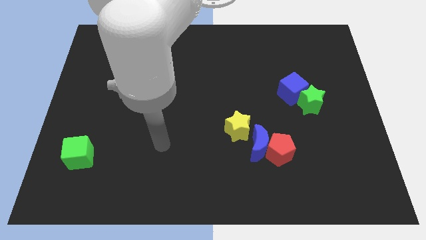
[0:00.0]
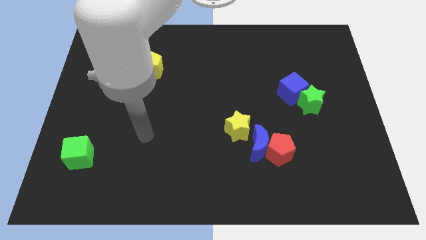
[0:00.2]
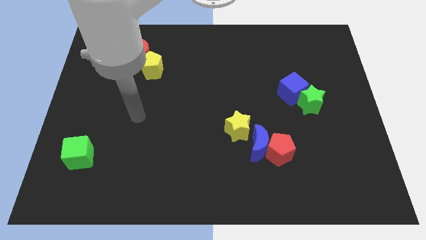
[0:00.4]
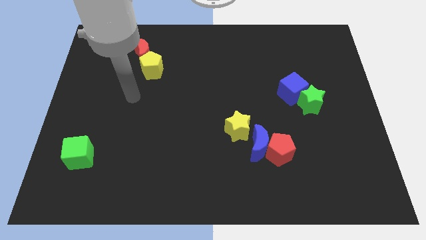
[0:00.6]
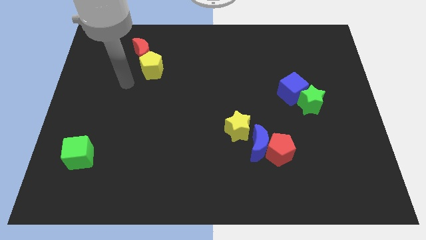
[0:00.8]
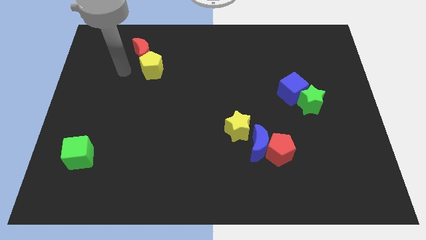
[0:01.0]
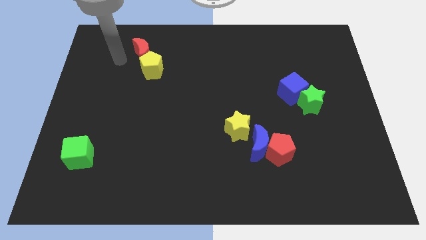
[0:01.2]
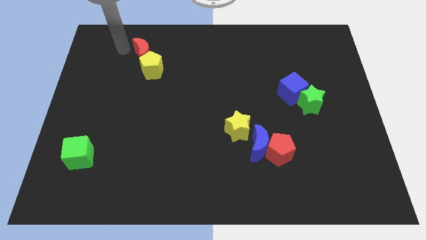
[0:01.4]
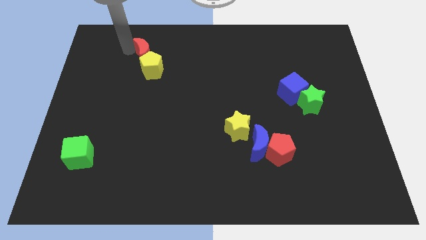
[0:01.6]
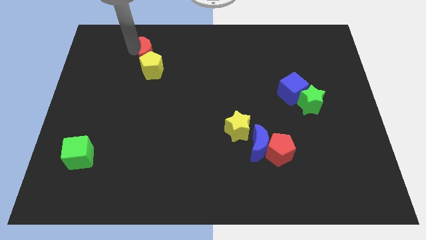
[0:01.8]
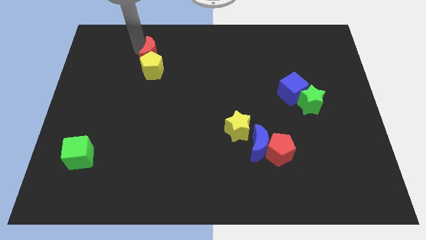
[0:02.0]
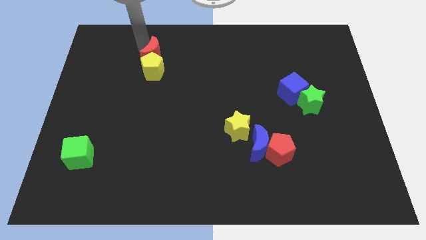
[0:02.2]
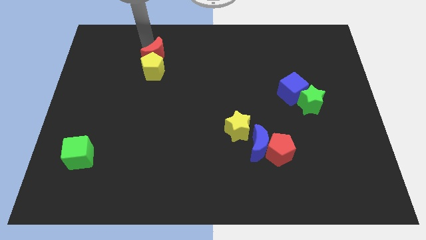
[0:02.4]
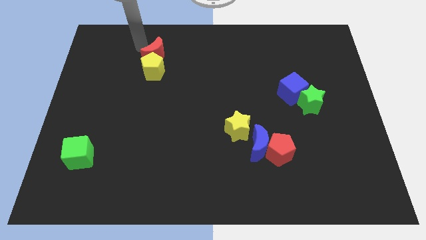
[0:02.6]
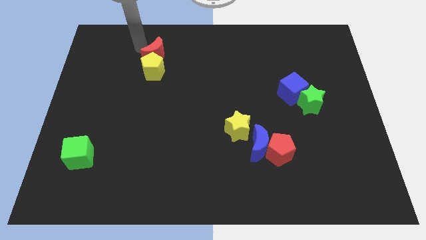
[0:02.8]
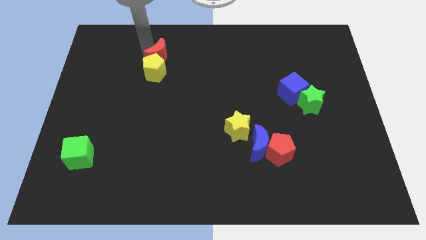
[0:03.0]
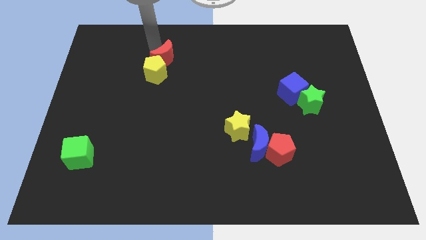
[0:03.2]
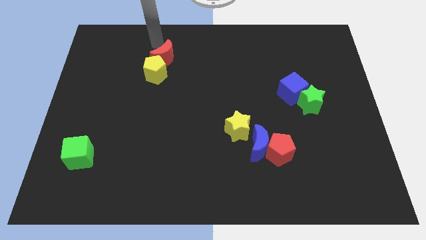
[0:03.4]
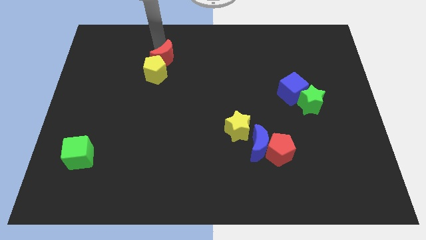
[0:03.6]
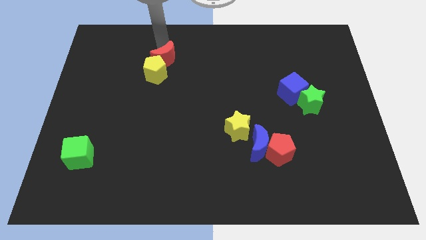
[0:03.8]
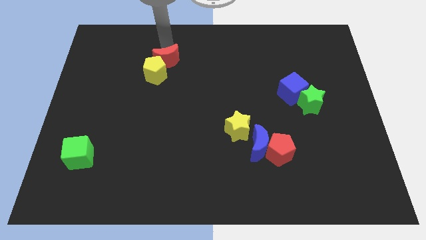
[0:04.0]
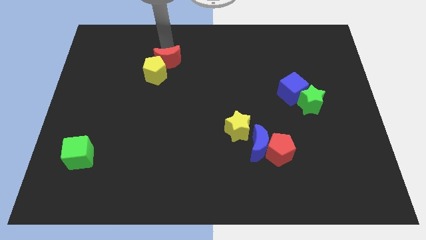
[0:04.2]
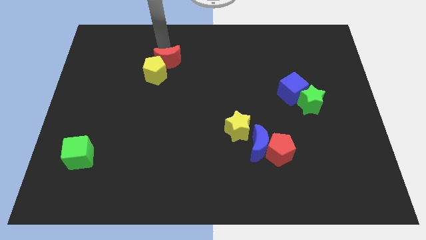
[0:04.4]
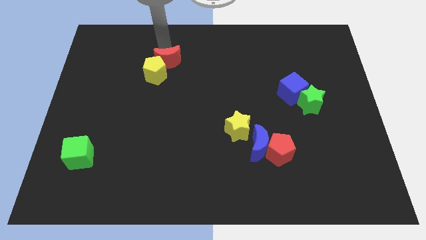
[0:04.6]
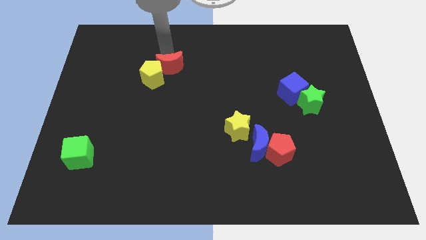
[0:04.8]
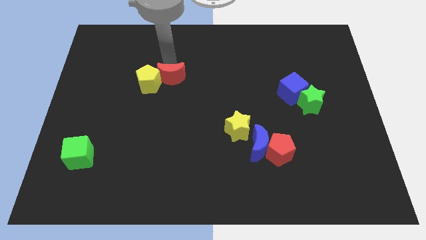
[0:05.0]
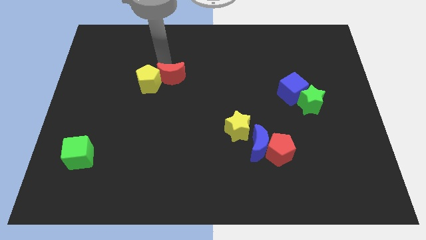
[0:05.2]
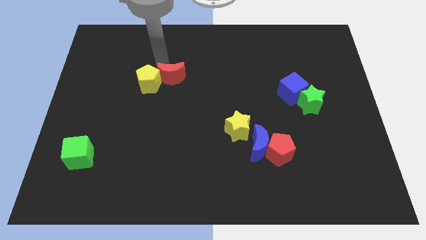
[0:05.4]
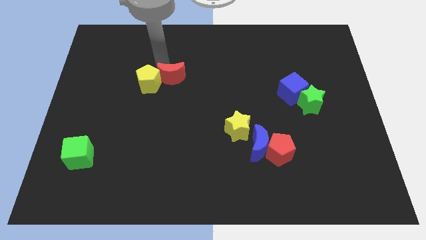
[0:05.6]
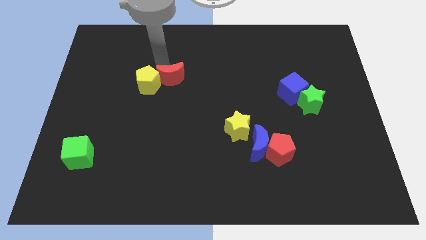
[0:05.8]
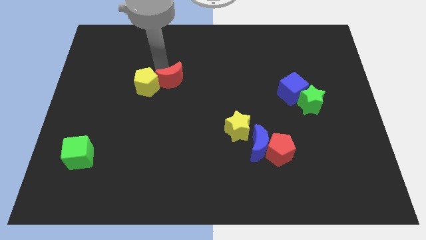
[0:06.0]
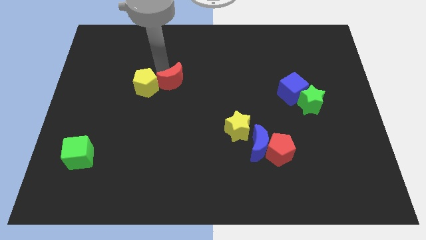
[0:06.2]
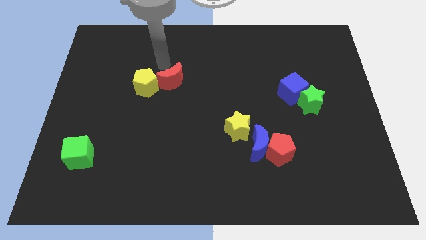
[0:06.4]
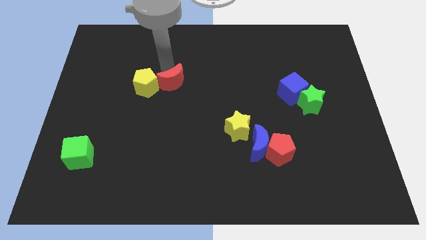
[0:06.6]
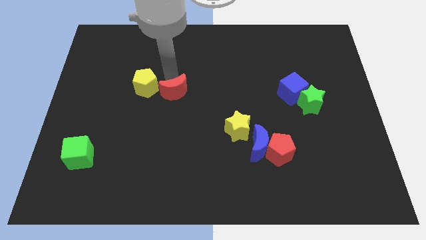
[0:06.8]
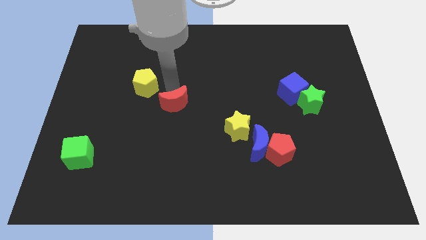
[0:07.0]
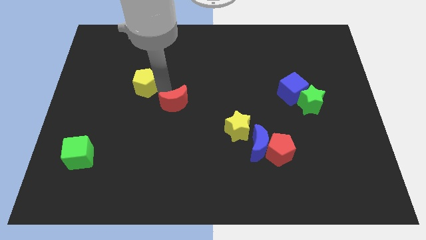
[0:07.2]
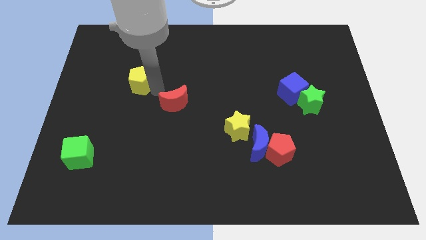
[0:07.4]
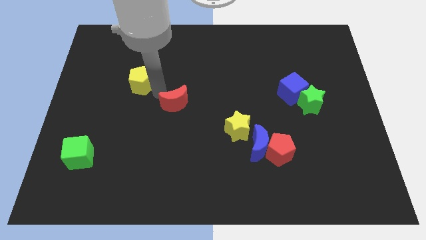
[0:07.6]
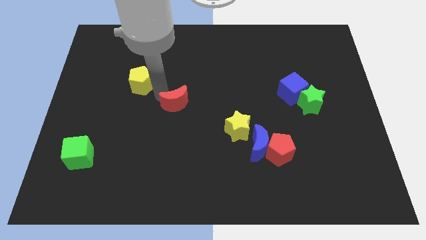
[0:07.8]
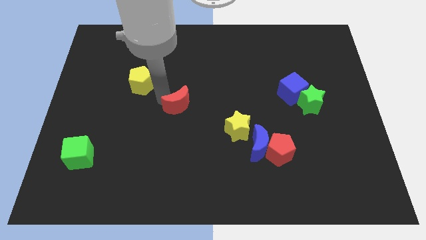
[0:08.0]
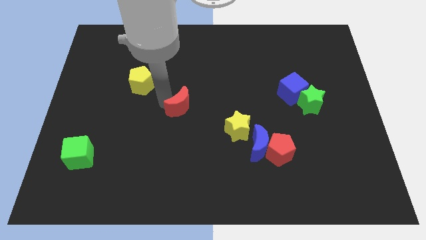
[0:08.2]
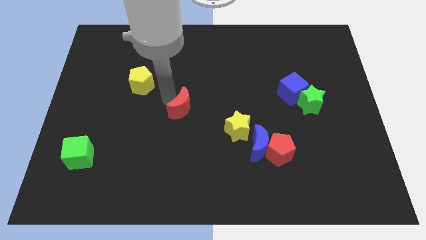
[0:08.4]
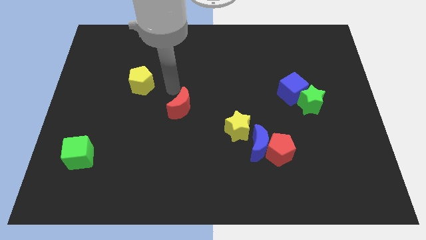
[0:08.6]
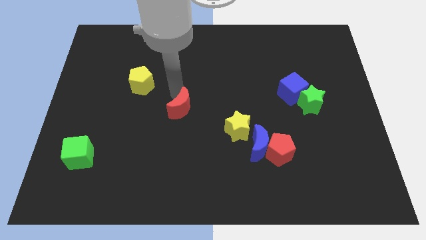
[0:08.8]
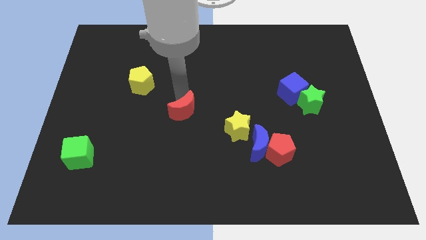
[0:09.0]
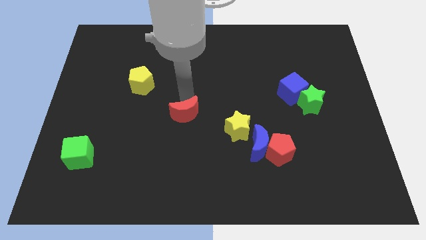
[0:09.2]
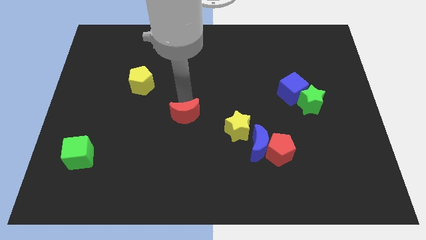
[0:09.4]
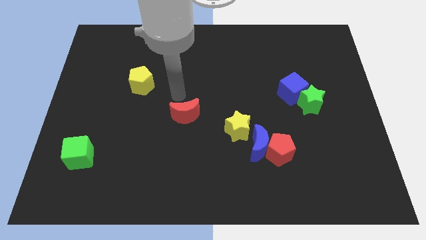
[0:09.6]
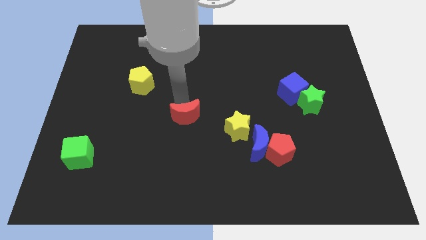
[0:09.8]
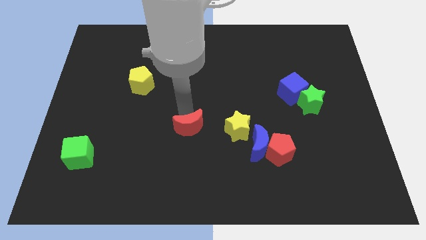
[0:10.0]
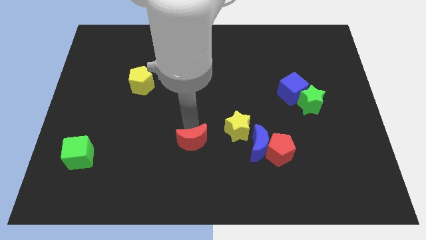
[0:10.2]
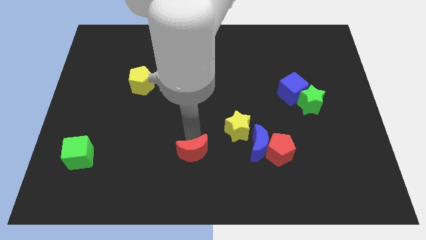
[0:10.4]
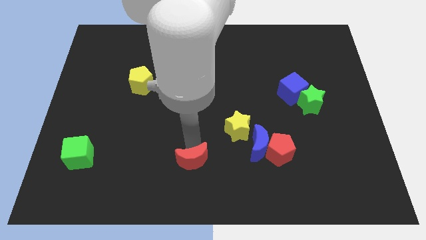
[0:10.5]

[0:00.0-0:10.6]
slide the red moon to the bottom

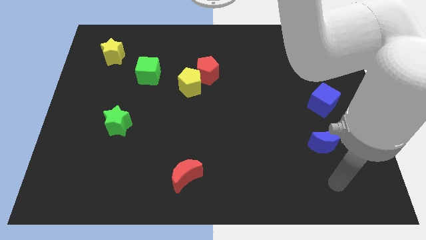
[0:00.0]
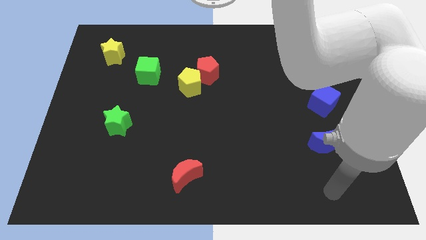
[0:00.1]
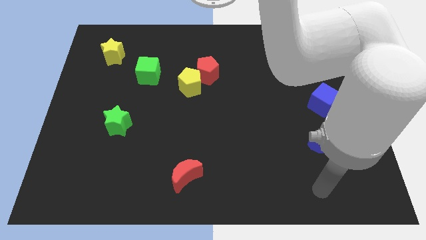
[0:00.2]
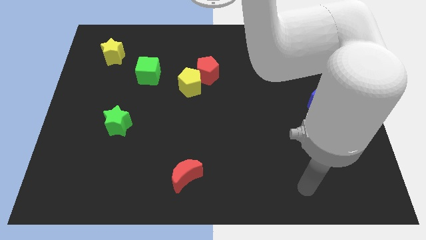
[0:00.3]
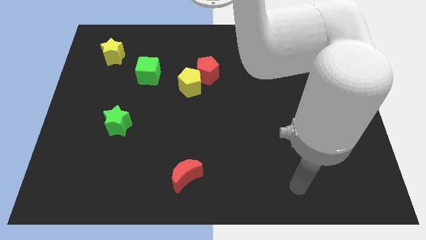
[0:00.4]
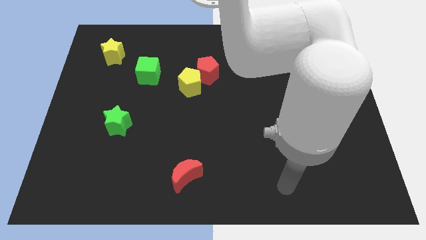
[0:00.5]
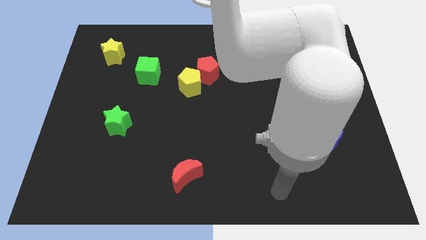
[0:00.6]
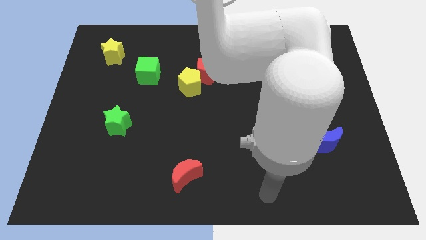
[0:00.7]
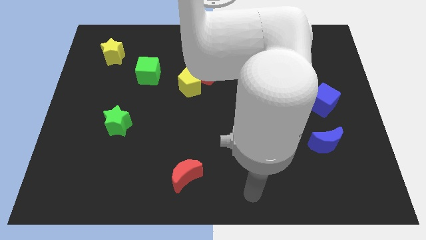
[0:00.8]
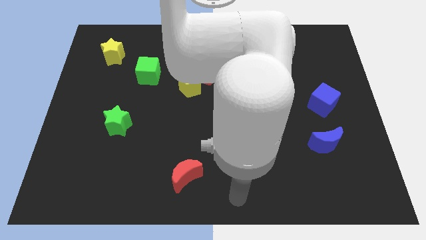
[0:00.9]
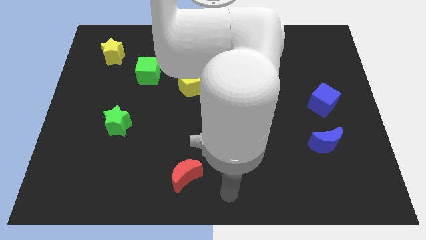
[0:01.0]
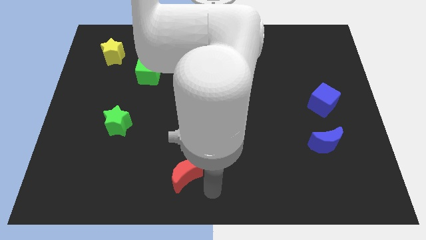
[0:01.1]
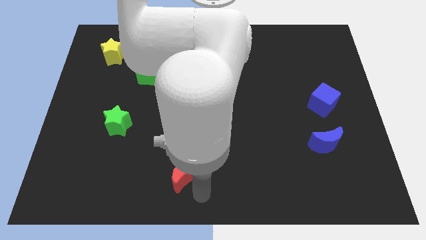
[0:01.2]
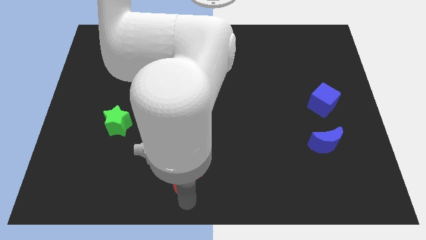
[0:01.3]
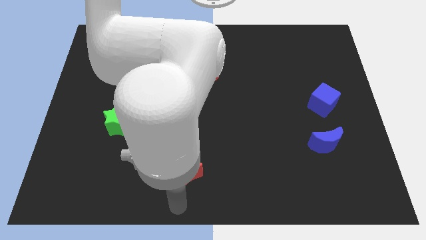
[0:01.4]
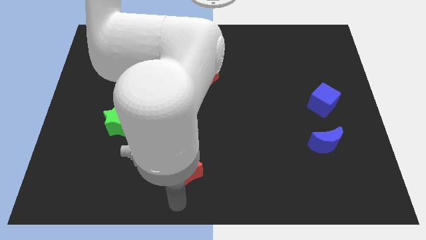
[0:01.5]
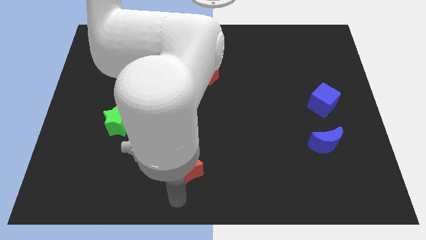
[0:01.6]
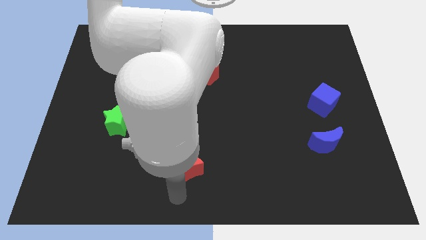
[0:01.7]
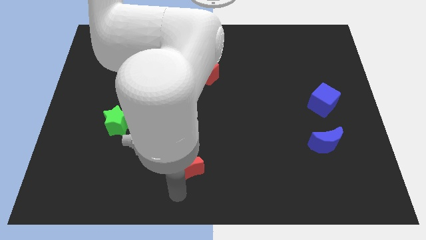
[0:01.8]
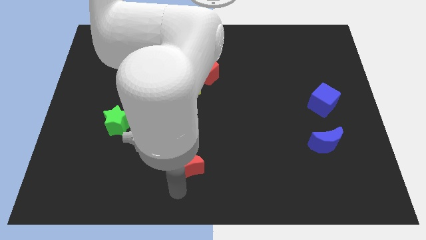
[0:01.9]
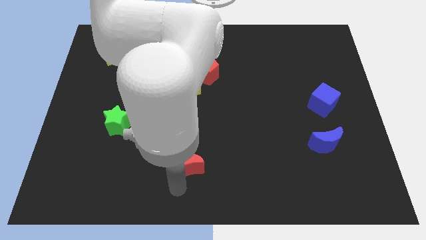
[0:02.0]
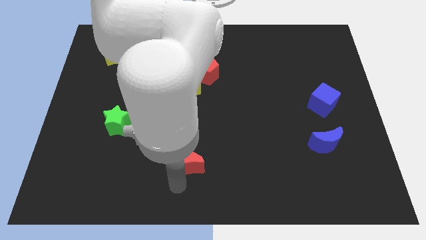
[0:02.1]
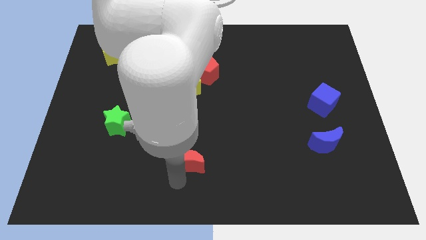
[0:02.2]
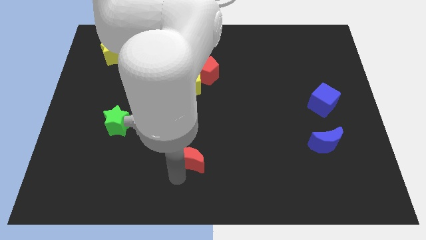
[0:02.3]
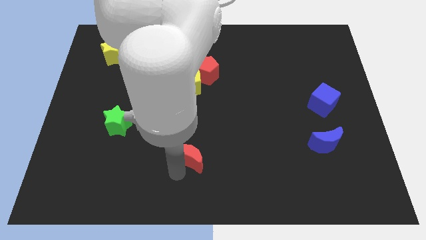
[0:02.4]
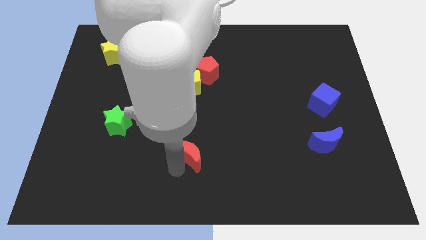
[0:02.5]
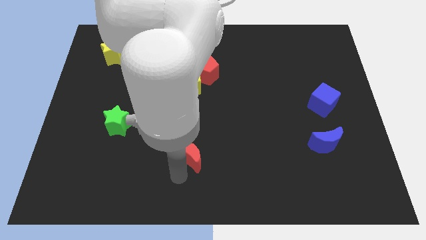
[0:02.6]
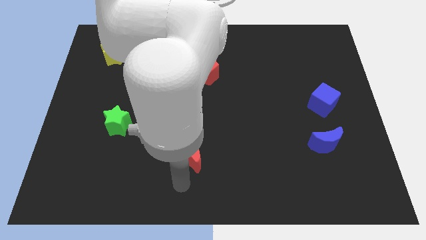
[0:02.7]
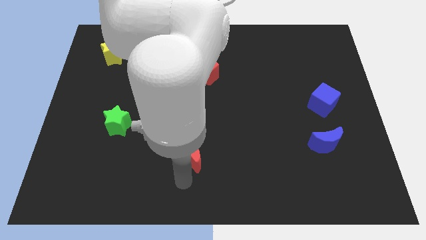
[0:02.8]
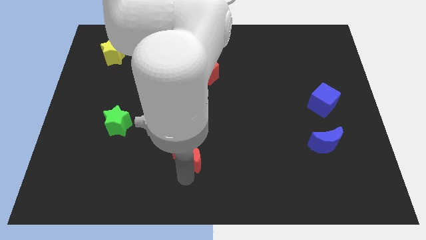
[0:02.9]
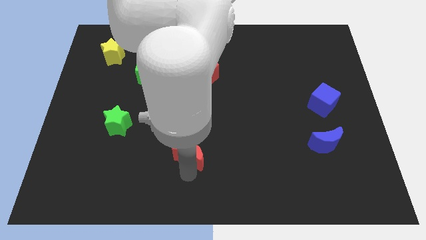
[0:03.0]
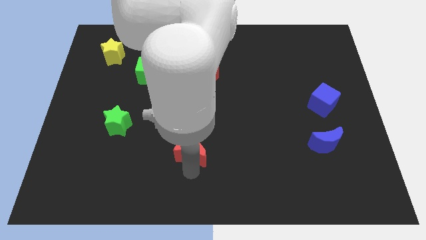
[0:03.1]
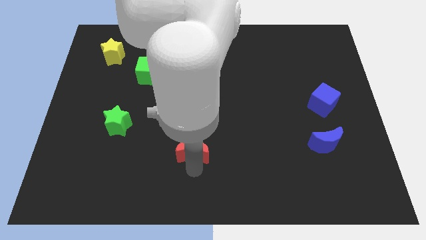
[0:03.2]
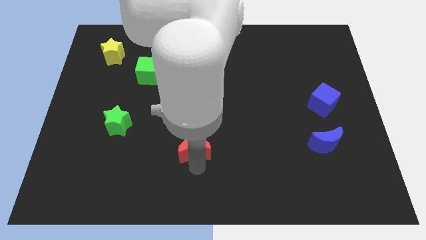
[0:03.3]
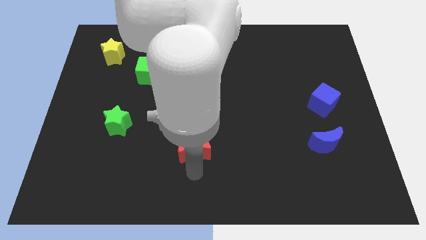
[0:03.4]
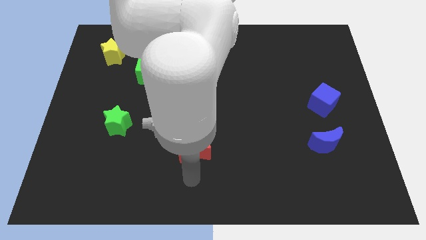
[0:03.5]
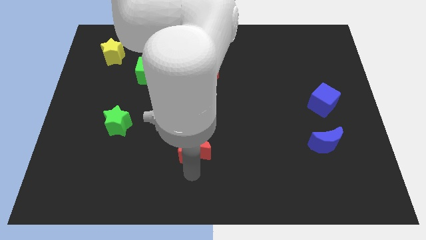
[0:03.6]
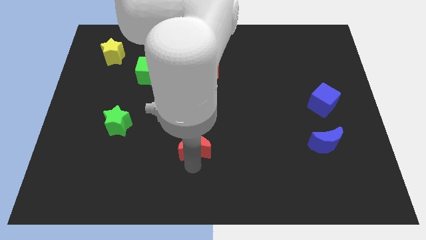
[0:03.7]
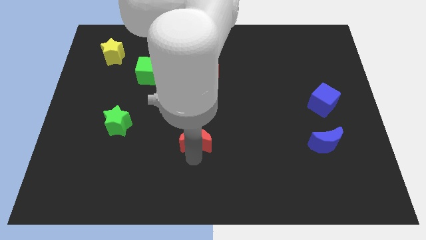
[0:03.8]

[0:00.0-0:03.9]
slide the red moon to the middle
